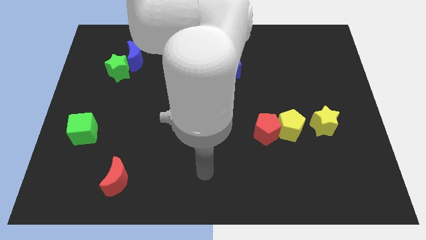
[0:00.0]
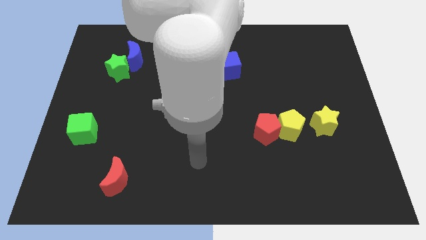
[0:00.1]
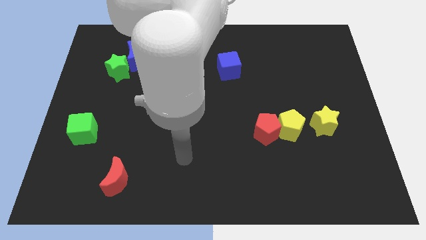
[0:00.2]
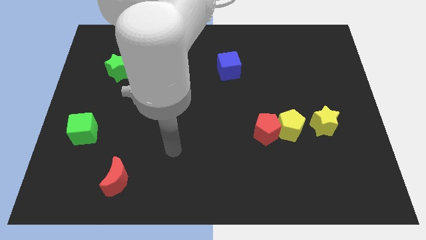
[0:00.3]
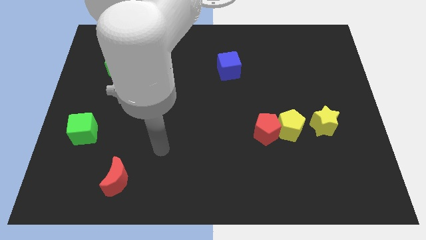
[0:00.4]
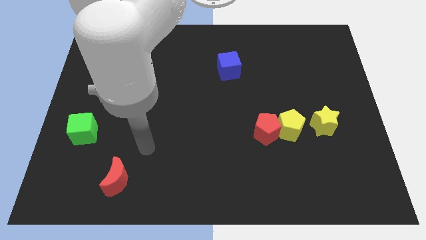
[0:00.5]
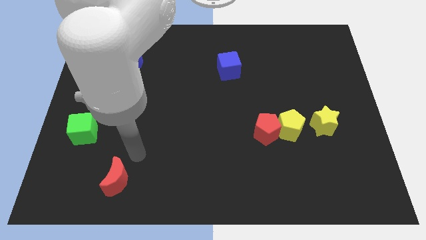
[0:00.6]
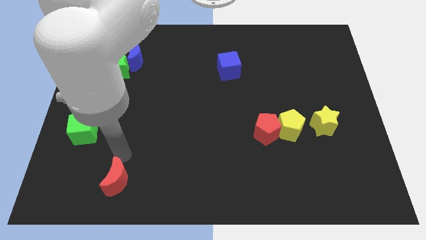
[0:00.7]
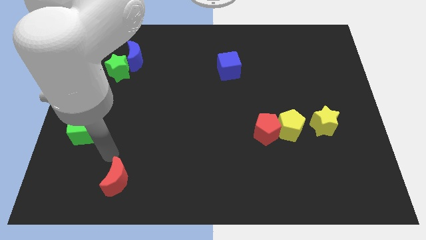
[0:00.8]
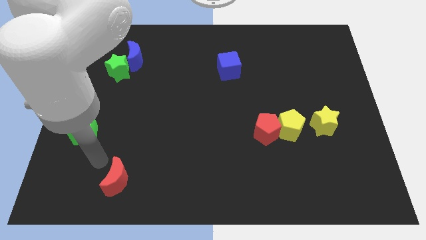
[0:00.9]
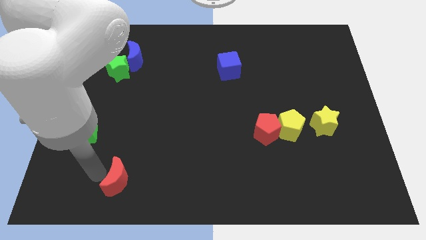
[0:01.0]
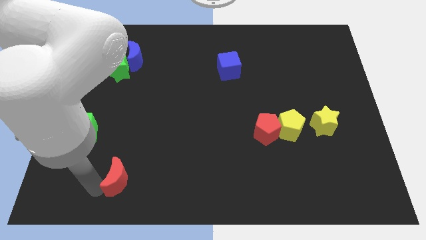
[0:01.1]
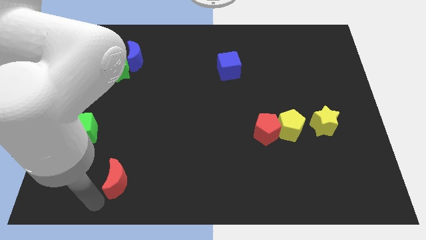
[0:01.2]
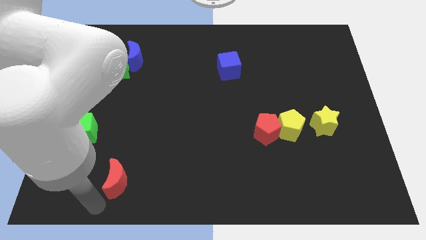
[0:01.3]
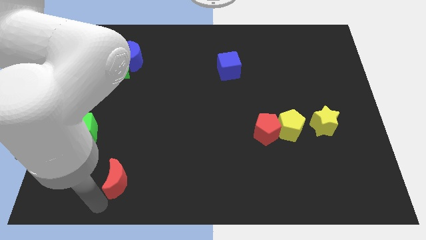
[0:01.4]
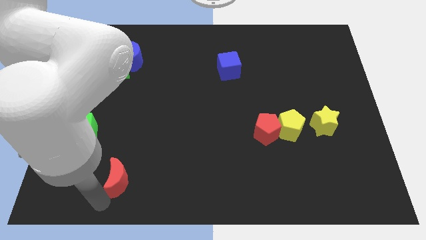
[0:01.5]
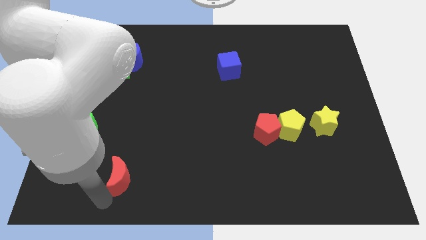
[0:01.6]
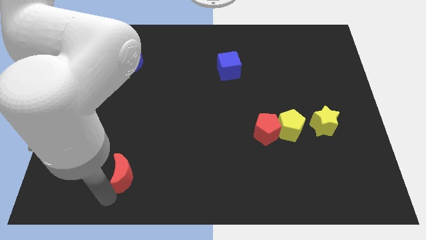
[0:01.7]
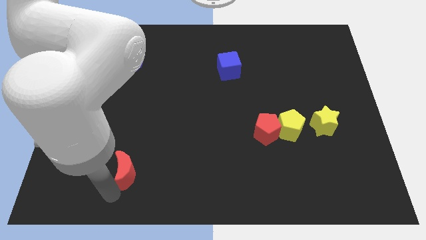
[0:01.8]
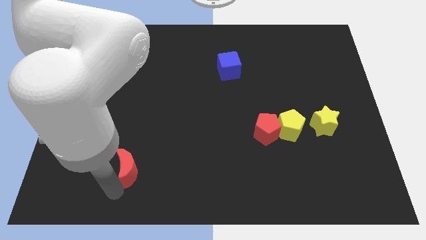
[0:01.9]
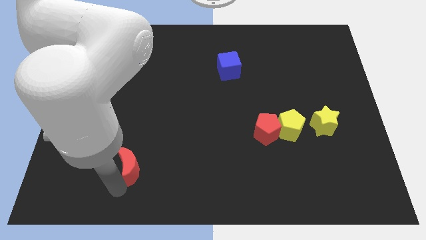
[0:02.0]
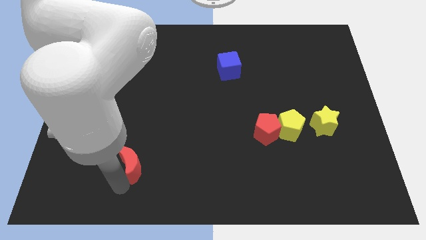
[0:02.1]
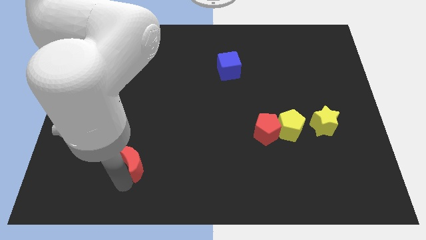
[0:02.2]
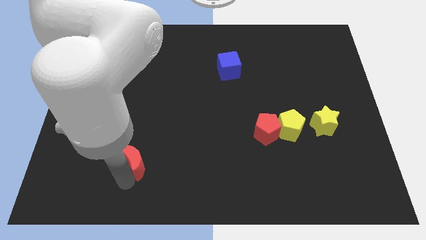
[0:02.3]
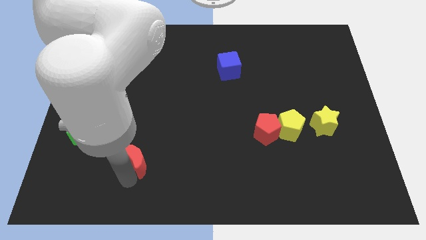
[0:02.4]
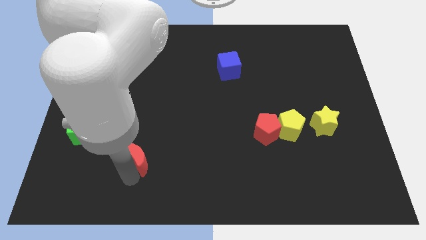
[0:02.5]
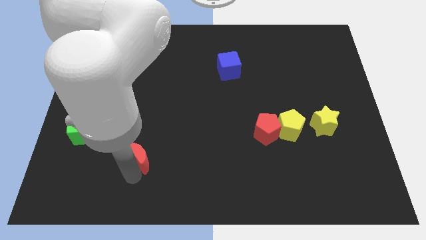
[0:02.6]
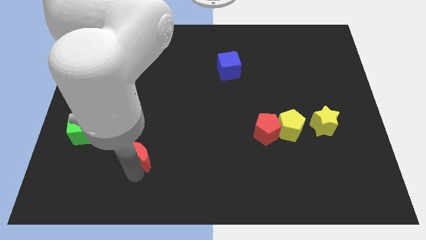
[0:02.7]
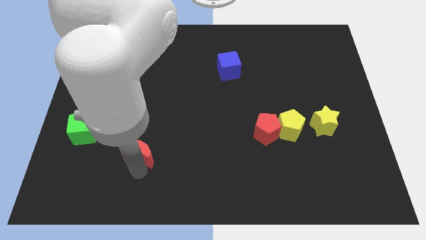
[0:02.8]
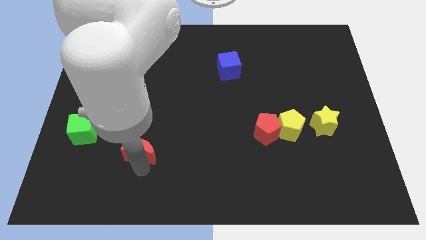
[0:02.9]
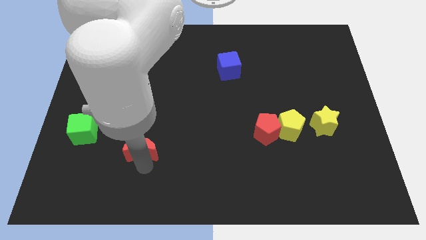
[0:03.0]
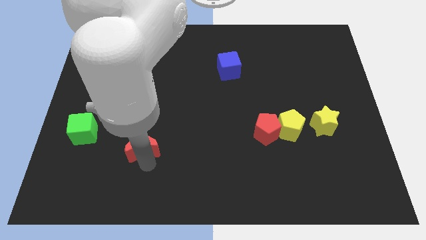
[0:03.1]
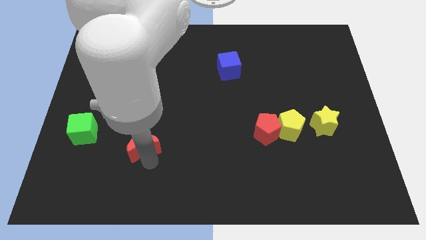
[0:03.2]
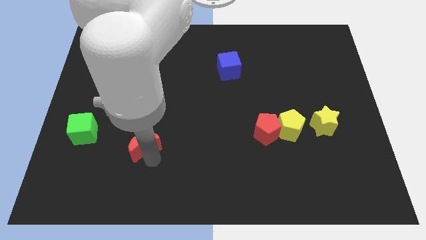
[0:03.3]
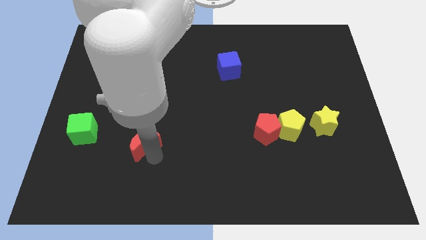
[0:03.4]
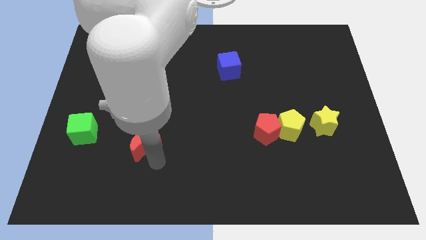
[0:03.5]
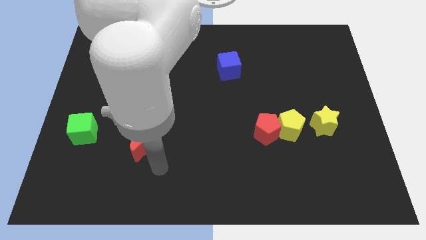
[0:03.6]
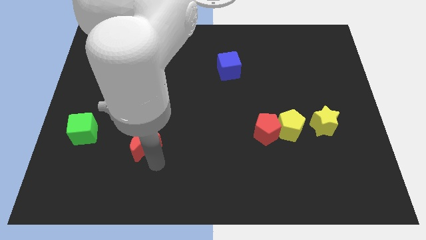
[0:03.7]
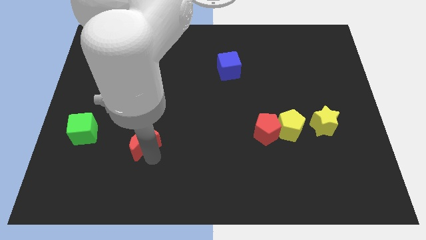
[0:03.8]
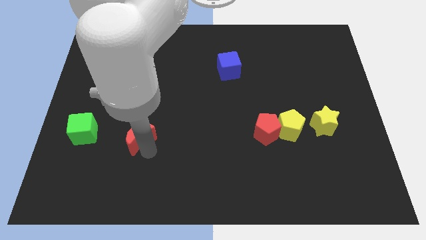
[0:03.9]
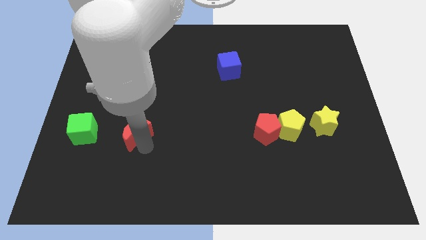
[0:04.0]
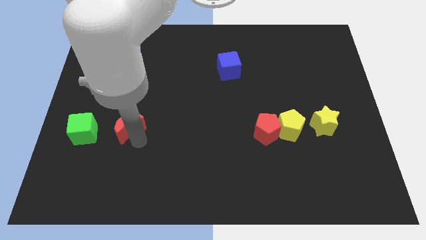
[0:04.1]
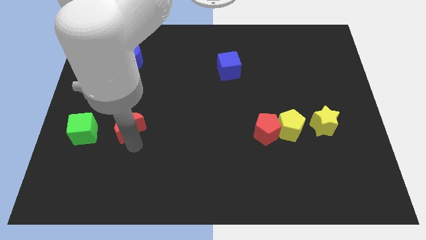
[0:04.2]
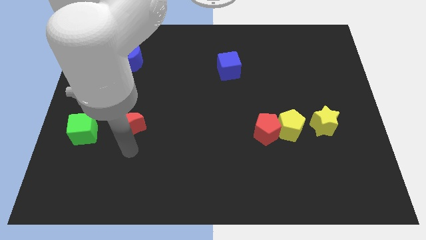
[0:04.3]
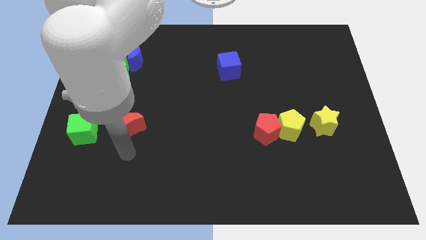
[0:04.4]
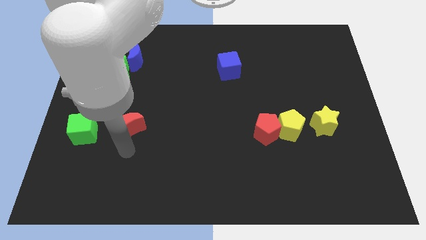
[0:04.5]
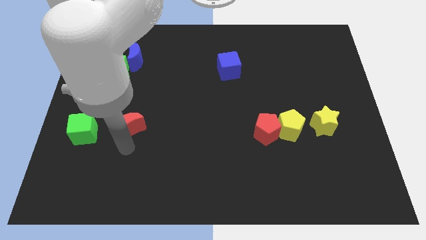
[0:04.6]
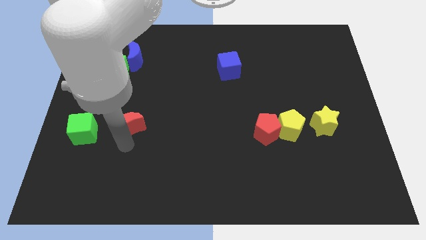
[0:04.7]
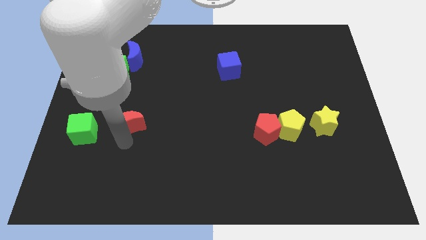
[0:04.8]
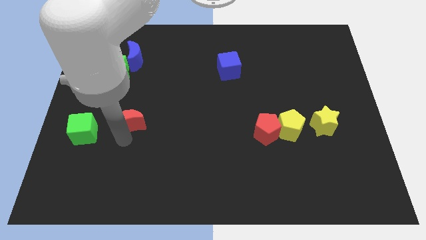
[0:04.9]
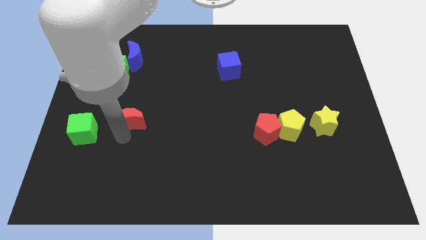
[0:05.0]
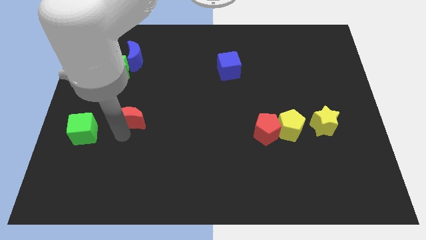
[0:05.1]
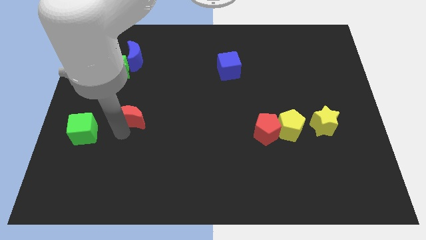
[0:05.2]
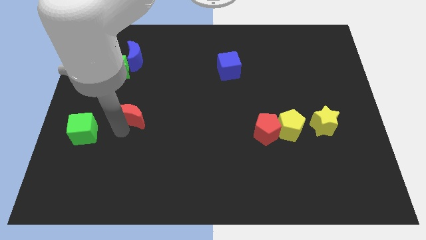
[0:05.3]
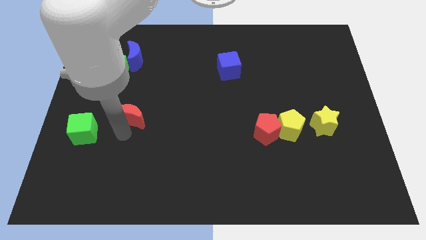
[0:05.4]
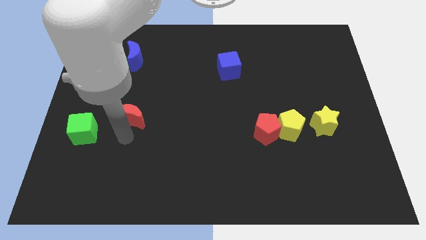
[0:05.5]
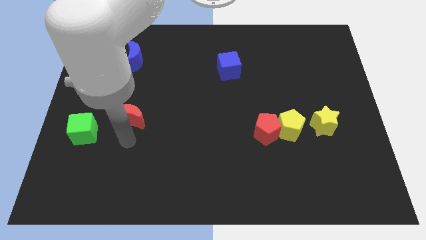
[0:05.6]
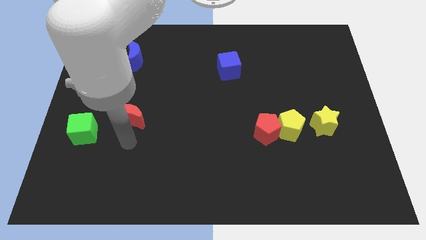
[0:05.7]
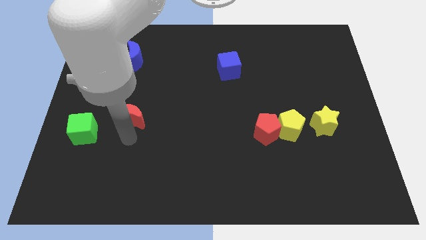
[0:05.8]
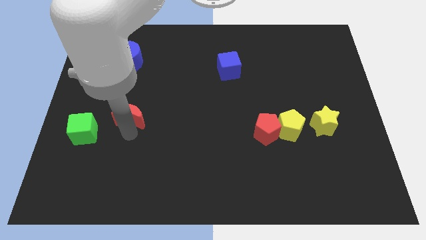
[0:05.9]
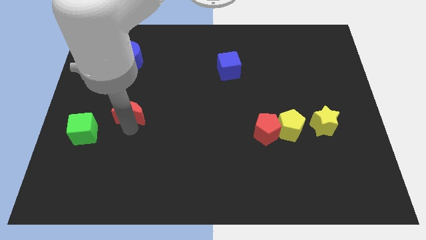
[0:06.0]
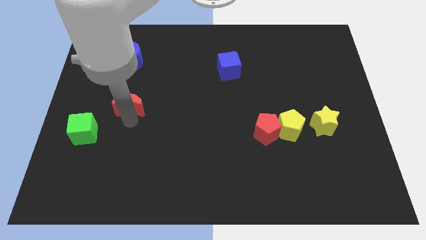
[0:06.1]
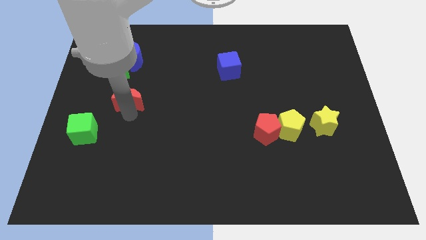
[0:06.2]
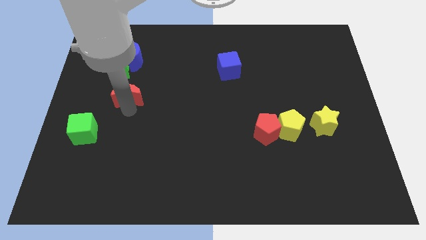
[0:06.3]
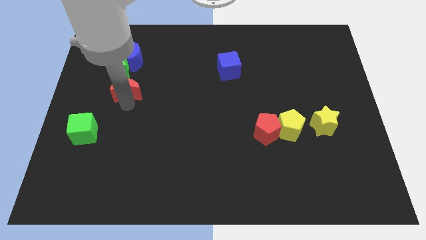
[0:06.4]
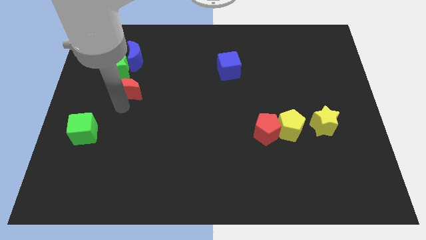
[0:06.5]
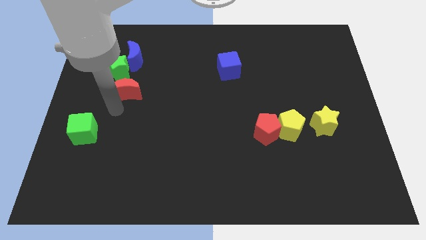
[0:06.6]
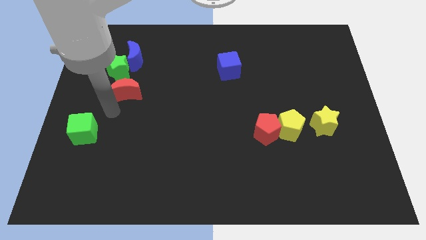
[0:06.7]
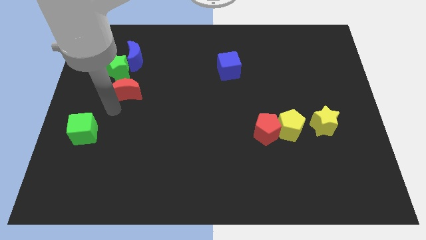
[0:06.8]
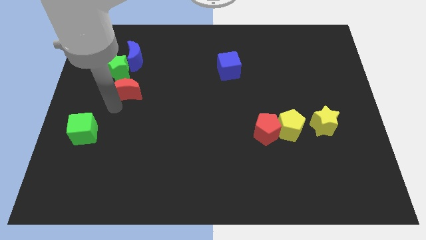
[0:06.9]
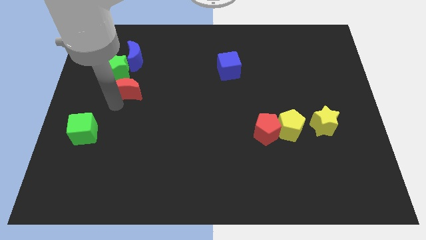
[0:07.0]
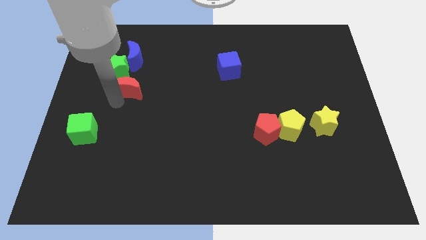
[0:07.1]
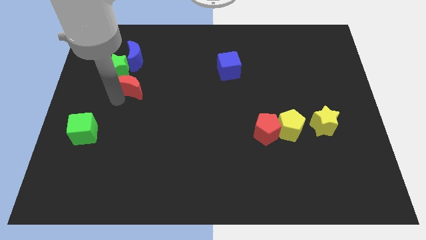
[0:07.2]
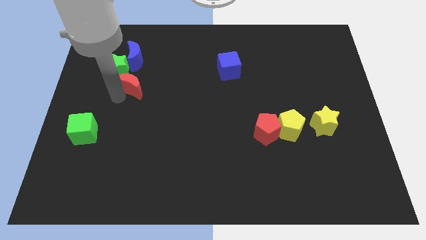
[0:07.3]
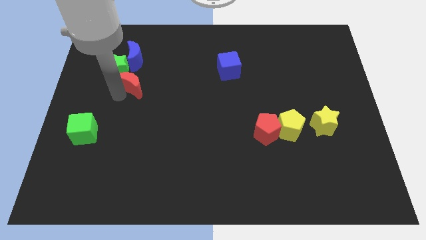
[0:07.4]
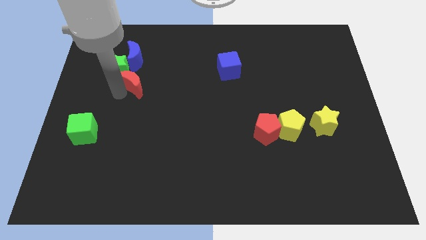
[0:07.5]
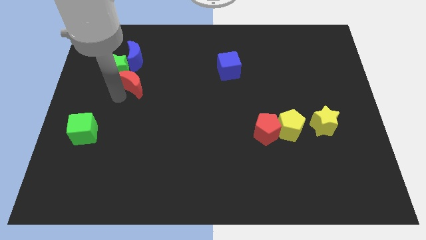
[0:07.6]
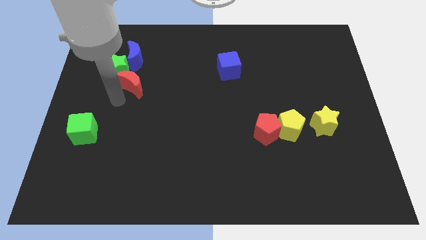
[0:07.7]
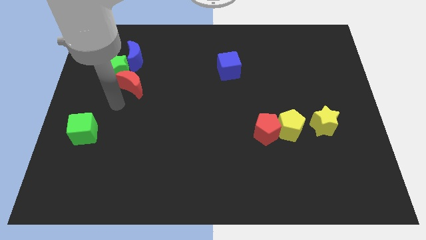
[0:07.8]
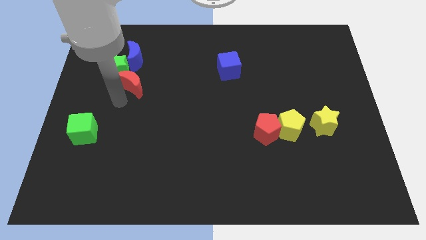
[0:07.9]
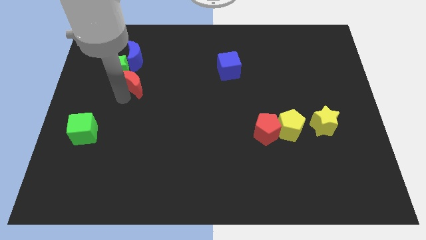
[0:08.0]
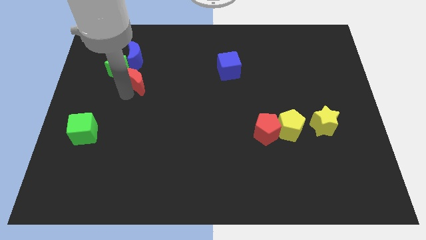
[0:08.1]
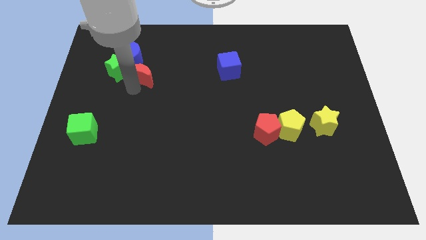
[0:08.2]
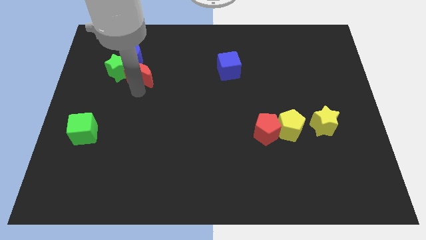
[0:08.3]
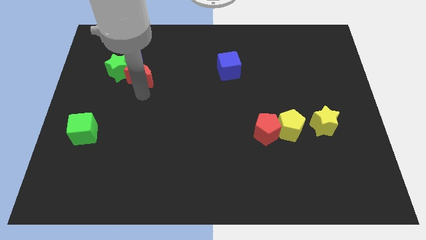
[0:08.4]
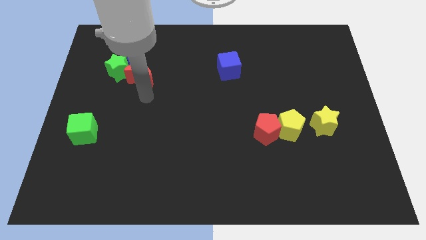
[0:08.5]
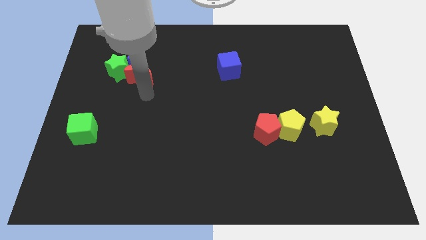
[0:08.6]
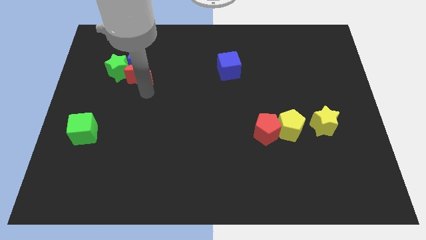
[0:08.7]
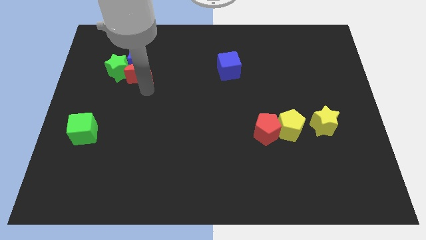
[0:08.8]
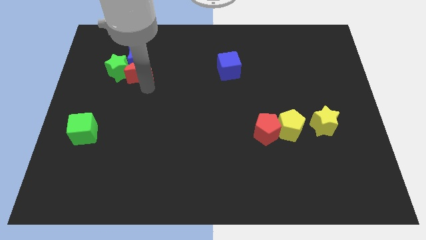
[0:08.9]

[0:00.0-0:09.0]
push the red moon towards the blue moon
